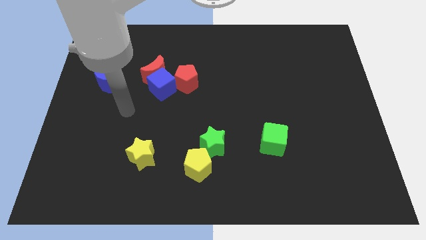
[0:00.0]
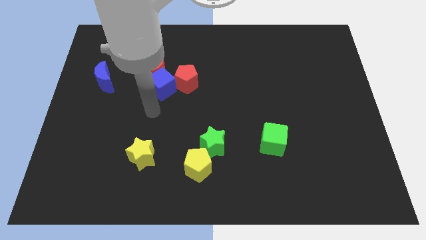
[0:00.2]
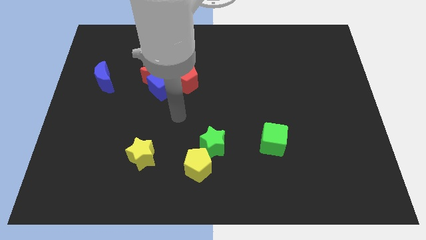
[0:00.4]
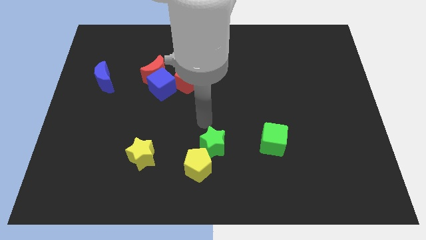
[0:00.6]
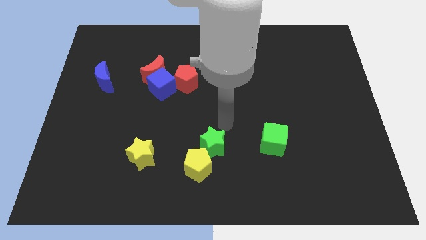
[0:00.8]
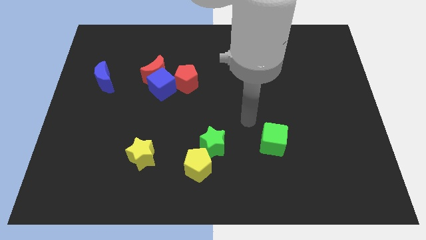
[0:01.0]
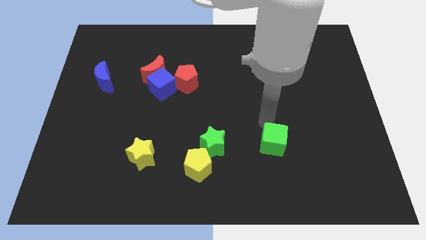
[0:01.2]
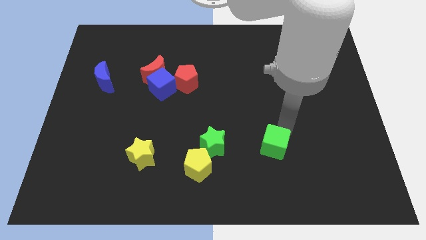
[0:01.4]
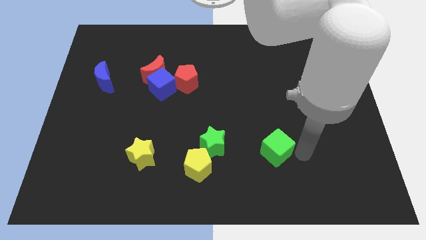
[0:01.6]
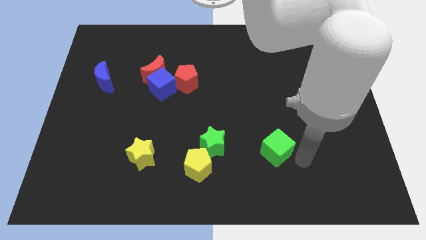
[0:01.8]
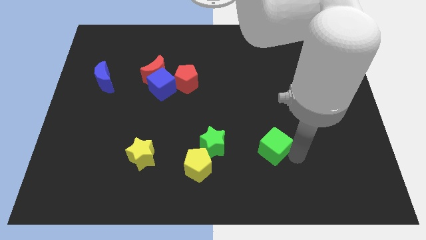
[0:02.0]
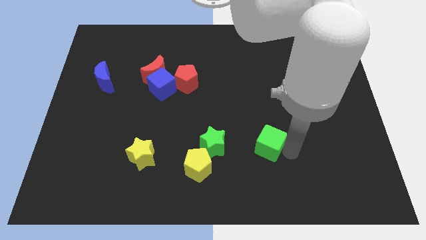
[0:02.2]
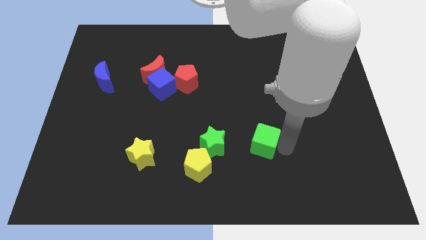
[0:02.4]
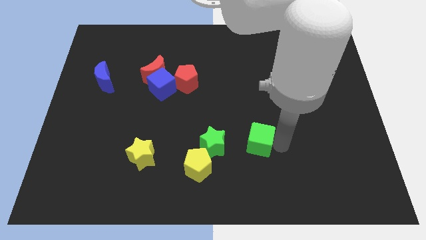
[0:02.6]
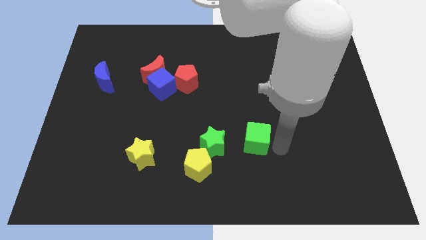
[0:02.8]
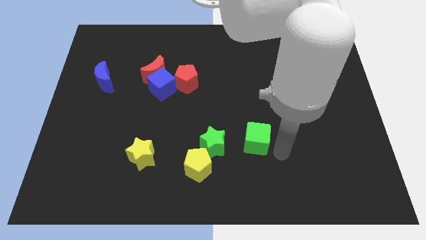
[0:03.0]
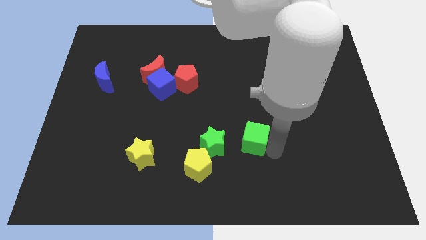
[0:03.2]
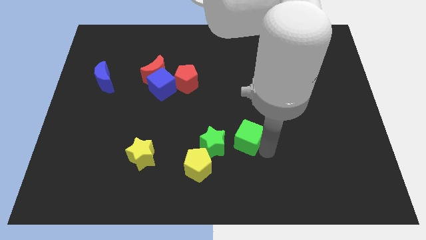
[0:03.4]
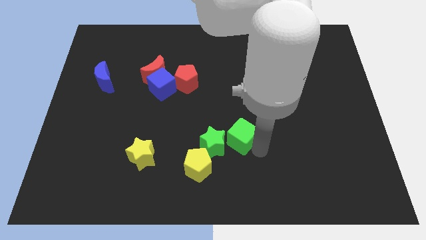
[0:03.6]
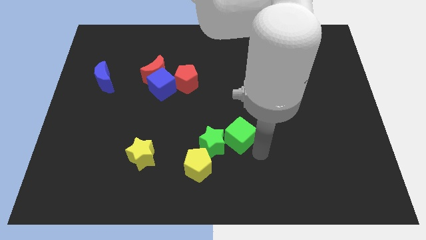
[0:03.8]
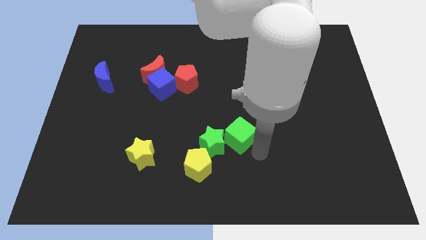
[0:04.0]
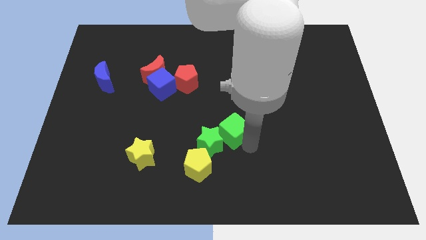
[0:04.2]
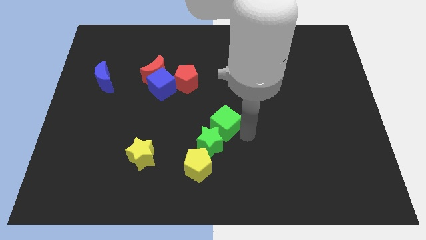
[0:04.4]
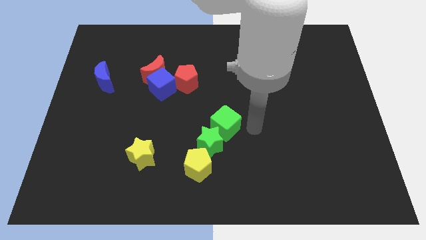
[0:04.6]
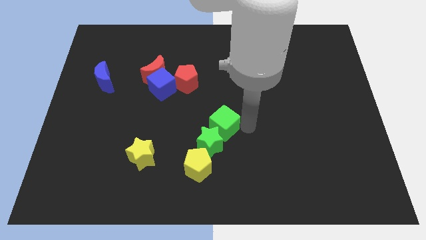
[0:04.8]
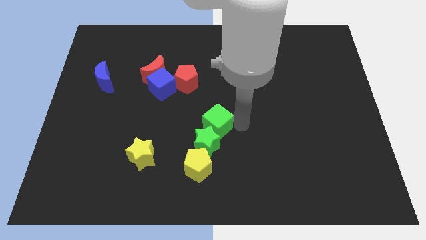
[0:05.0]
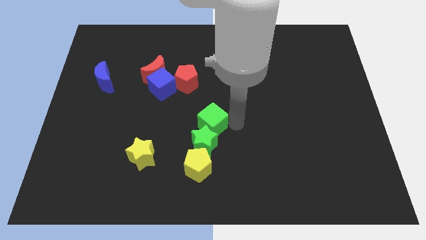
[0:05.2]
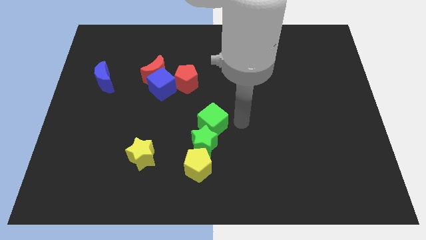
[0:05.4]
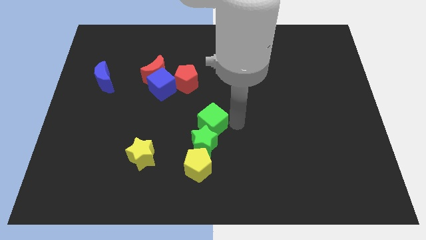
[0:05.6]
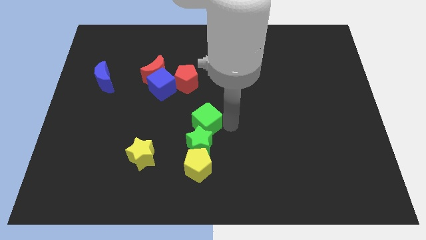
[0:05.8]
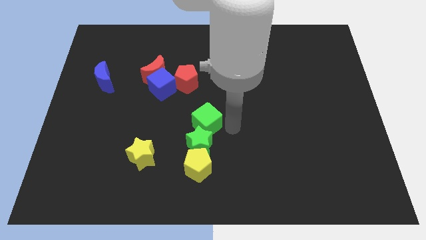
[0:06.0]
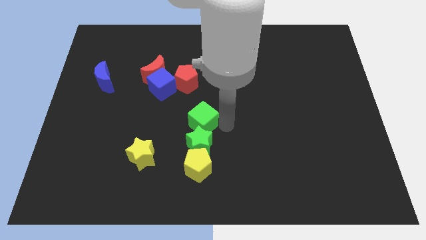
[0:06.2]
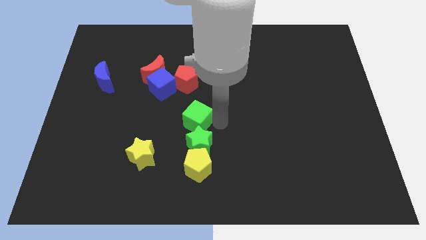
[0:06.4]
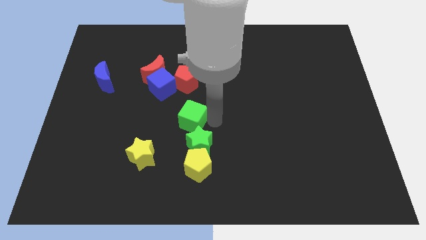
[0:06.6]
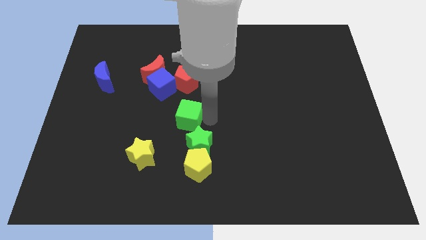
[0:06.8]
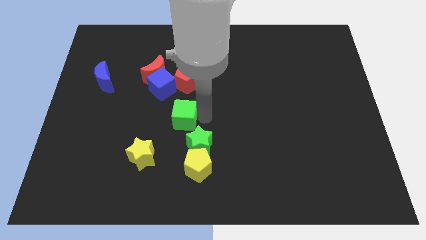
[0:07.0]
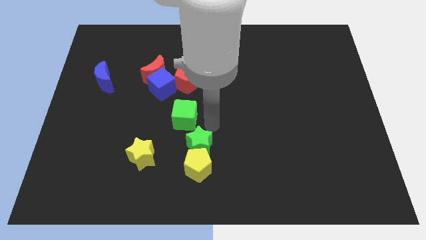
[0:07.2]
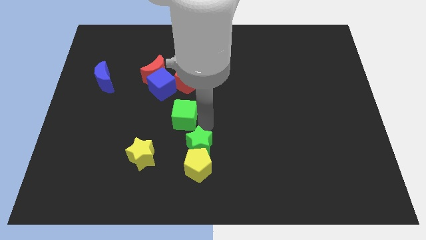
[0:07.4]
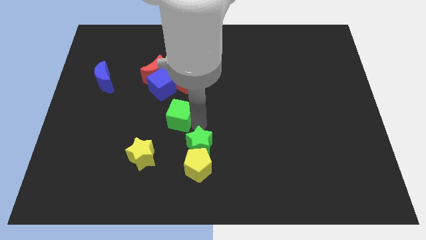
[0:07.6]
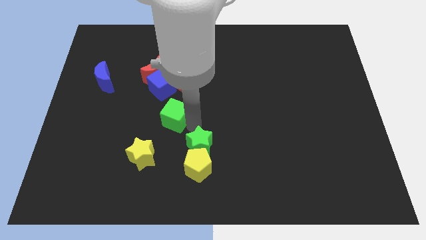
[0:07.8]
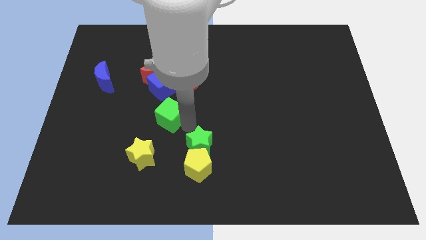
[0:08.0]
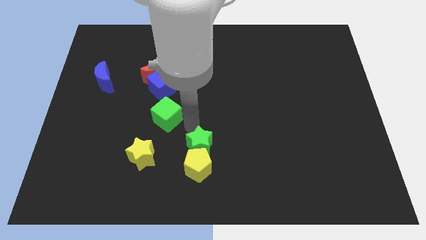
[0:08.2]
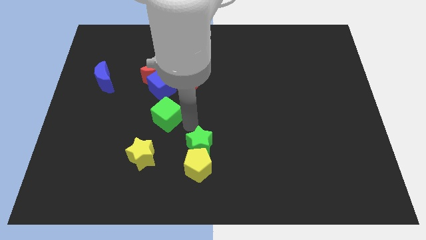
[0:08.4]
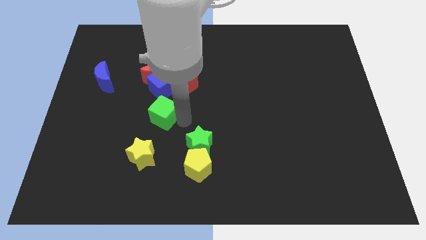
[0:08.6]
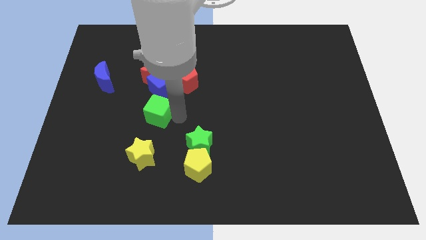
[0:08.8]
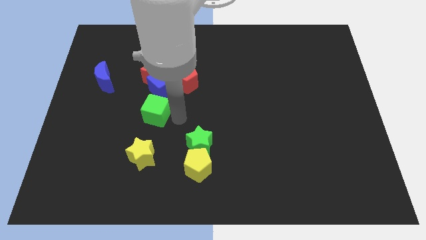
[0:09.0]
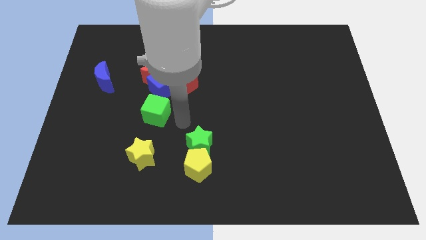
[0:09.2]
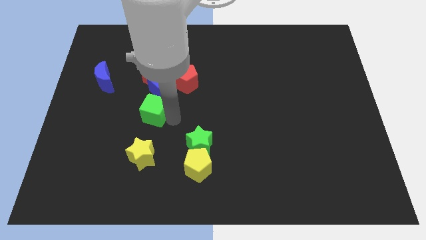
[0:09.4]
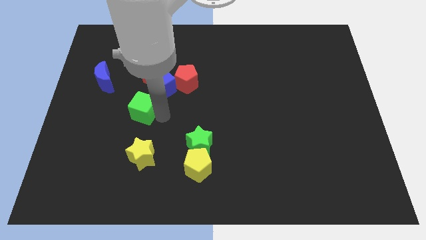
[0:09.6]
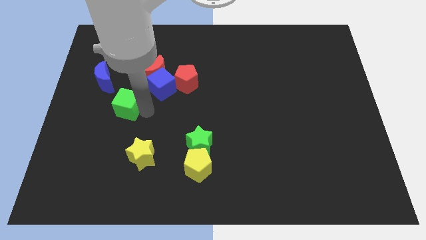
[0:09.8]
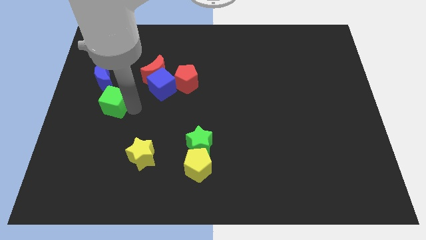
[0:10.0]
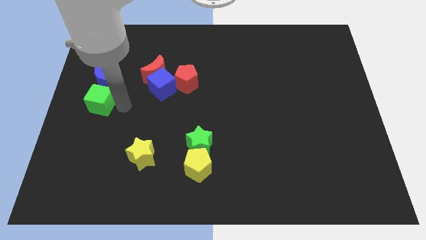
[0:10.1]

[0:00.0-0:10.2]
put the green cube to the left side

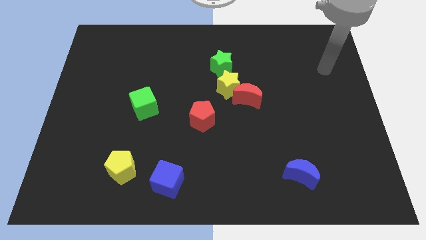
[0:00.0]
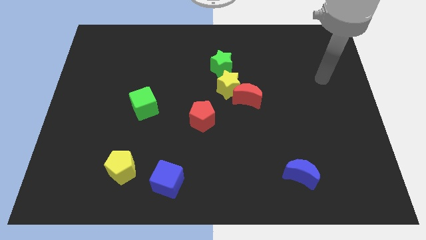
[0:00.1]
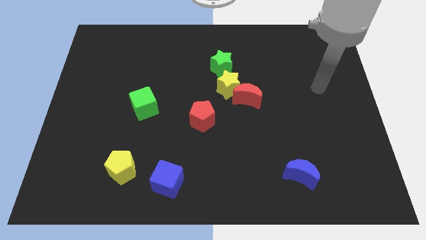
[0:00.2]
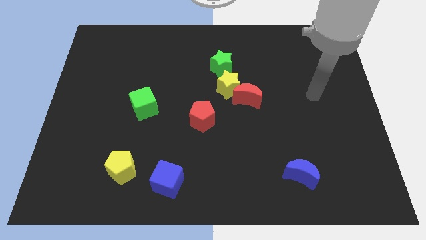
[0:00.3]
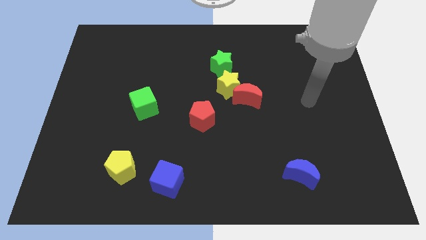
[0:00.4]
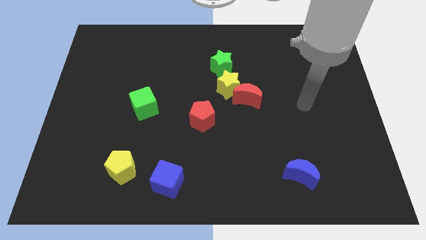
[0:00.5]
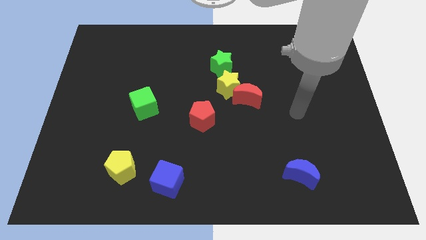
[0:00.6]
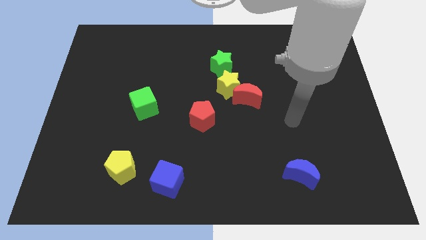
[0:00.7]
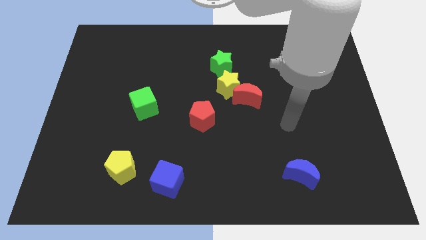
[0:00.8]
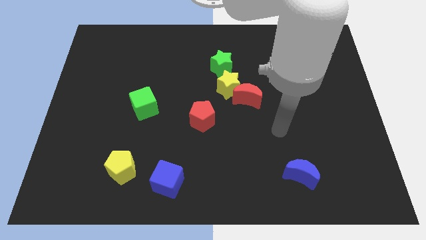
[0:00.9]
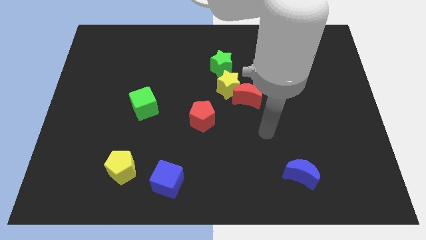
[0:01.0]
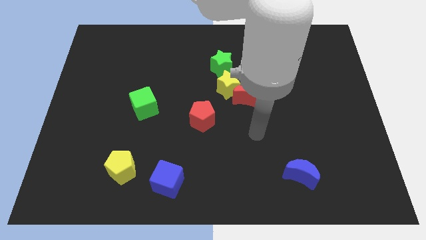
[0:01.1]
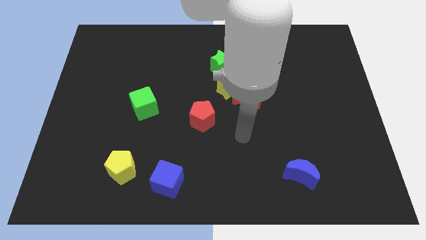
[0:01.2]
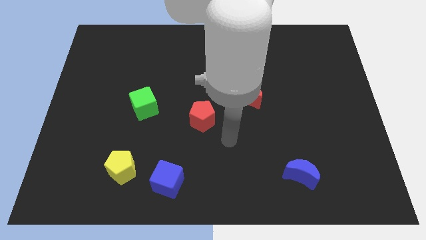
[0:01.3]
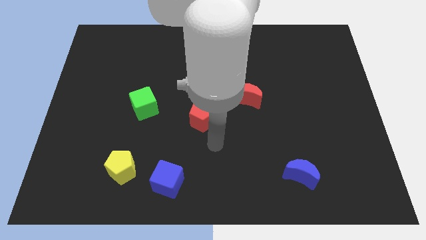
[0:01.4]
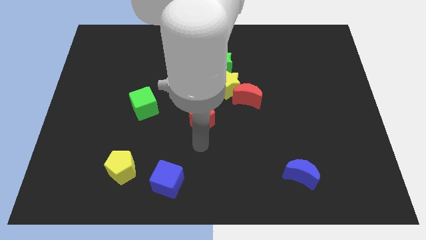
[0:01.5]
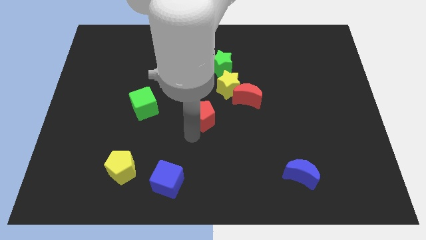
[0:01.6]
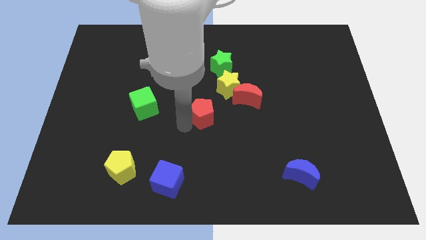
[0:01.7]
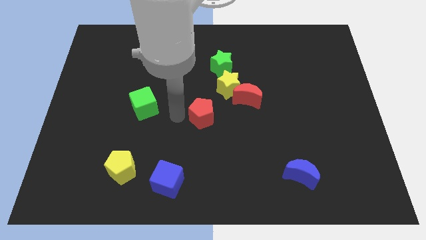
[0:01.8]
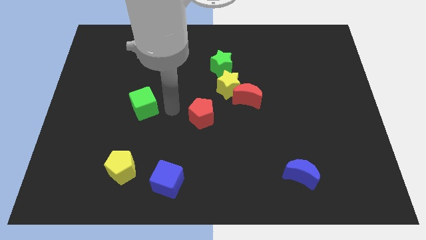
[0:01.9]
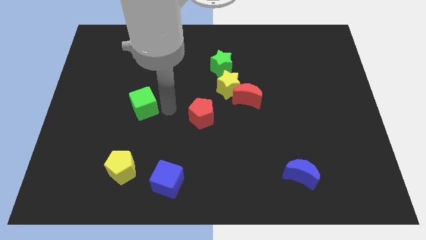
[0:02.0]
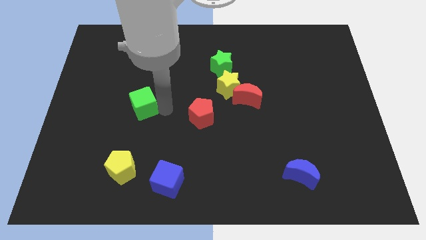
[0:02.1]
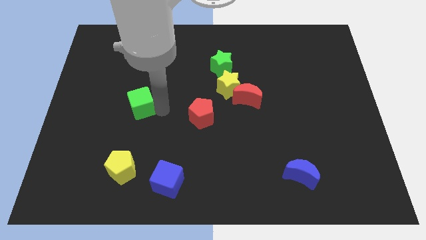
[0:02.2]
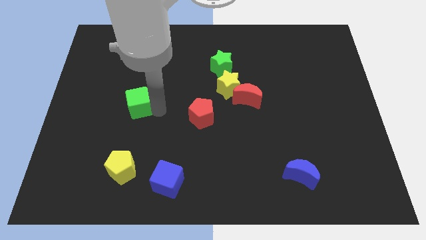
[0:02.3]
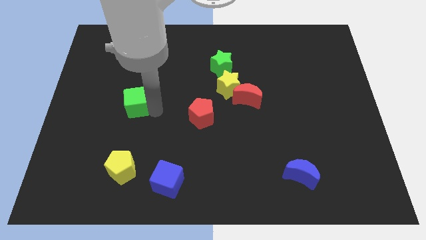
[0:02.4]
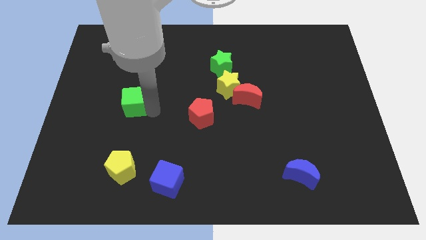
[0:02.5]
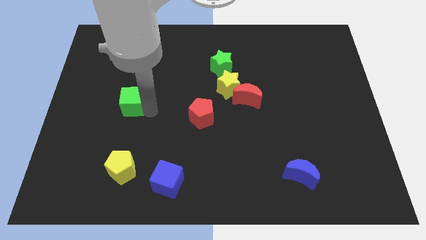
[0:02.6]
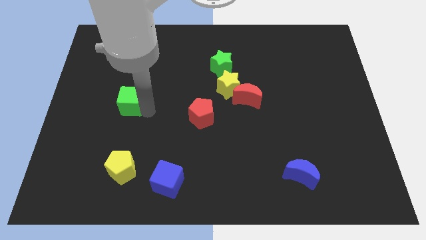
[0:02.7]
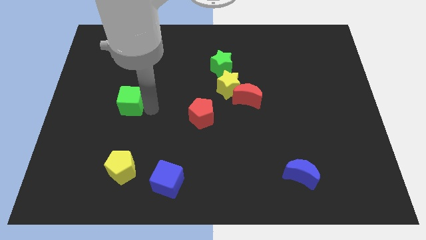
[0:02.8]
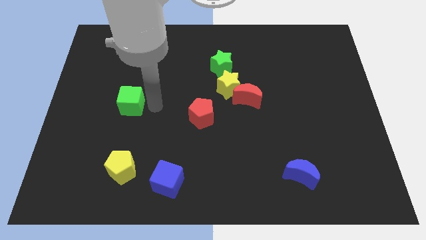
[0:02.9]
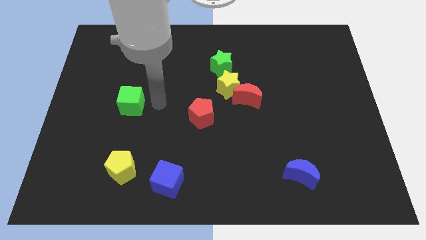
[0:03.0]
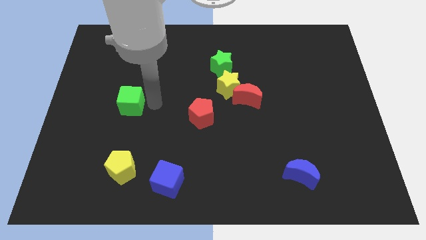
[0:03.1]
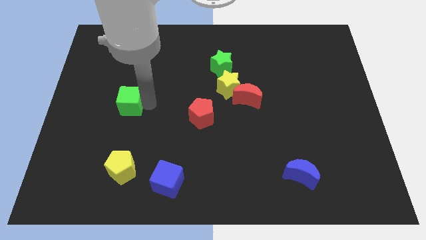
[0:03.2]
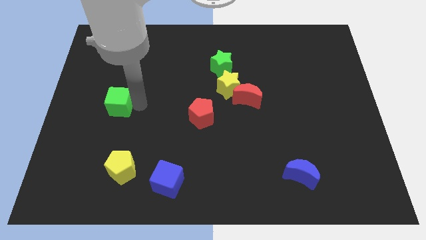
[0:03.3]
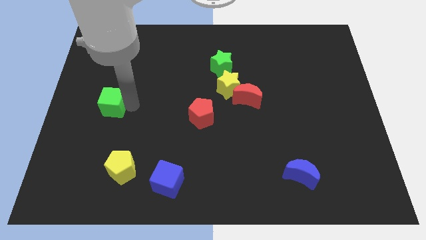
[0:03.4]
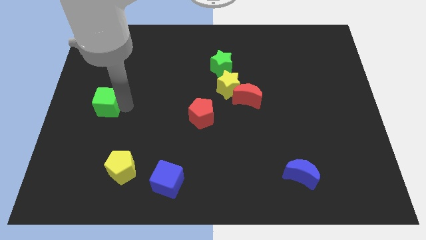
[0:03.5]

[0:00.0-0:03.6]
move the green cube to the left side of the board
